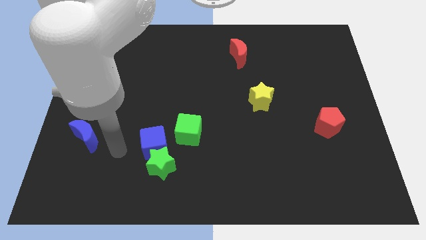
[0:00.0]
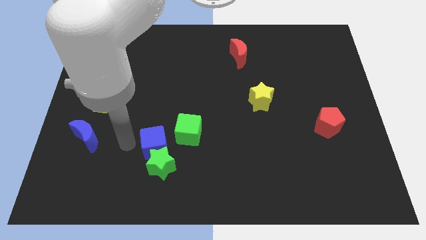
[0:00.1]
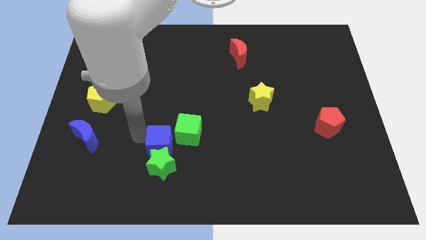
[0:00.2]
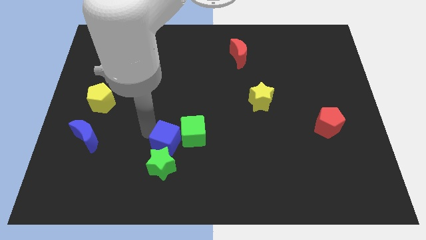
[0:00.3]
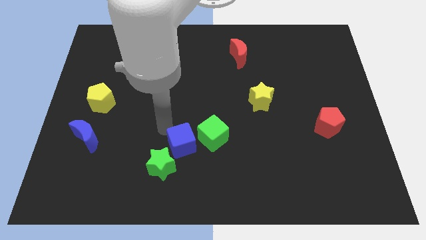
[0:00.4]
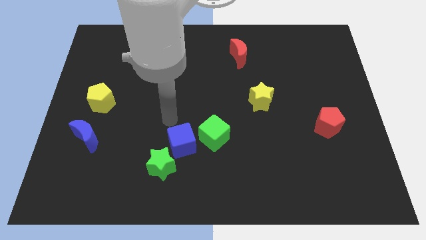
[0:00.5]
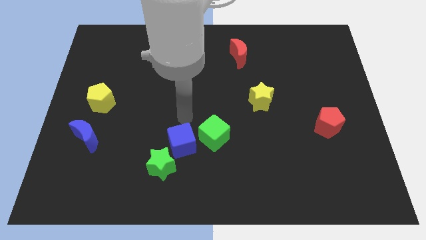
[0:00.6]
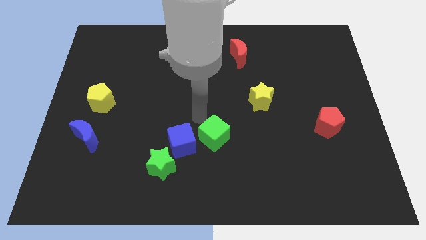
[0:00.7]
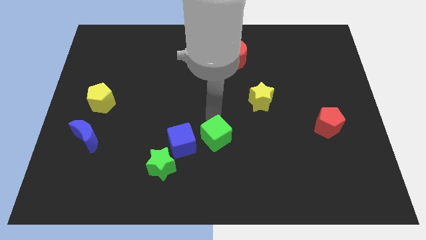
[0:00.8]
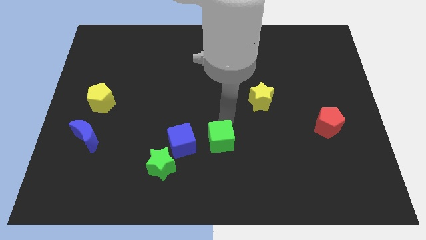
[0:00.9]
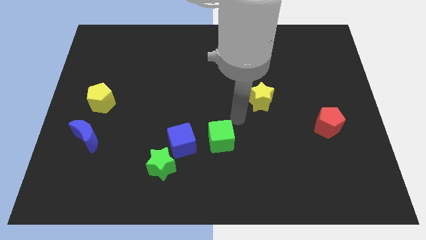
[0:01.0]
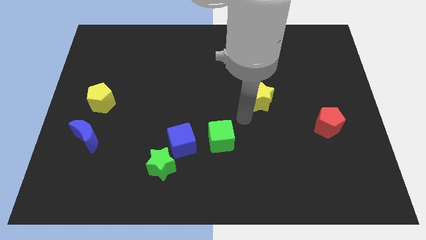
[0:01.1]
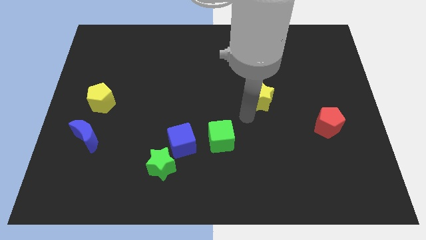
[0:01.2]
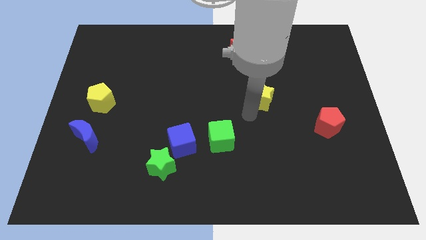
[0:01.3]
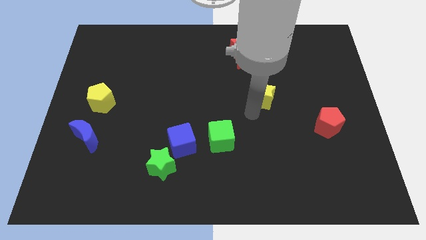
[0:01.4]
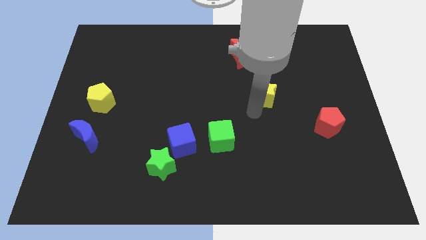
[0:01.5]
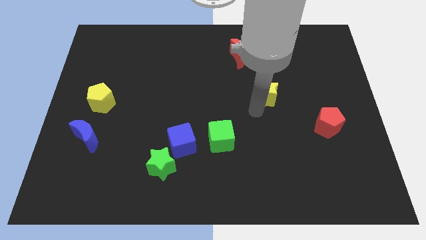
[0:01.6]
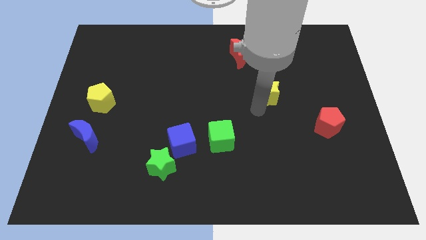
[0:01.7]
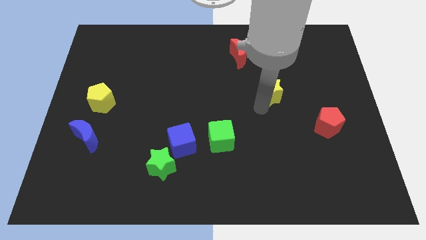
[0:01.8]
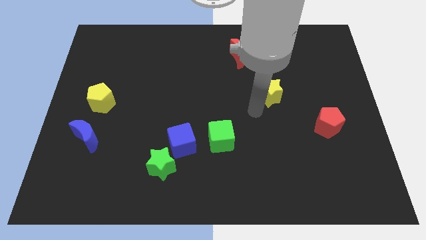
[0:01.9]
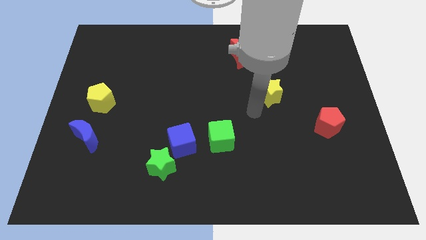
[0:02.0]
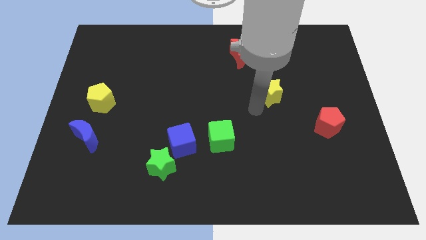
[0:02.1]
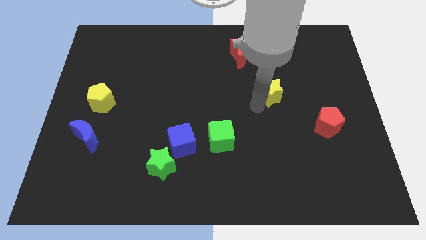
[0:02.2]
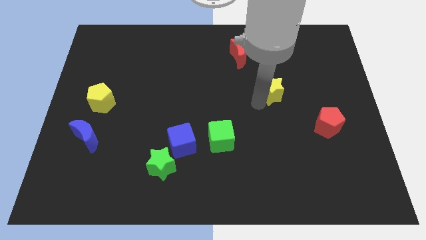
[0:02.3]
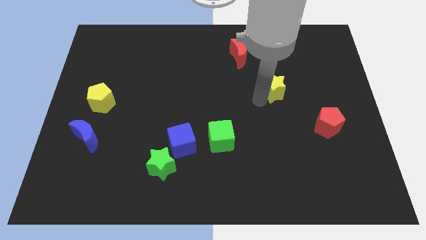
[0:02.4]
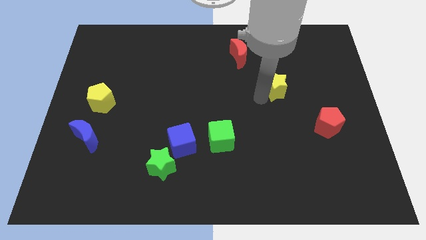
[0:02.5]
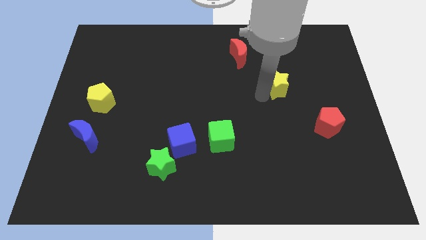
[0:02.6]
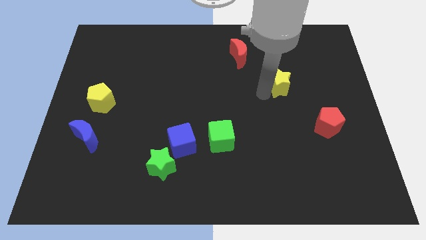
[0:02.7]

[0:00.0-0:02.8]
slide the yellow star diagonally up and right slightly

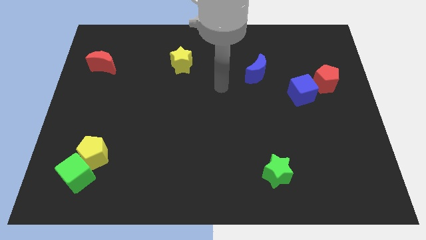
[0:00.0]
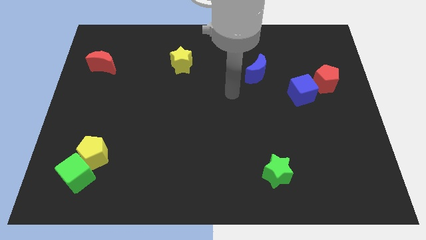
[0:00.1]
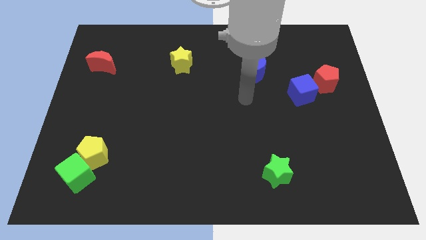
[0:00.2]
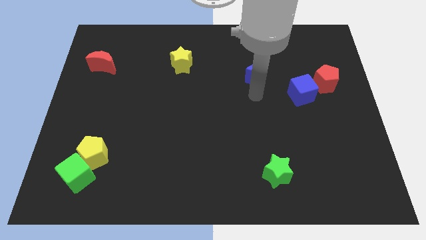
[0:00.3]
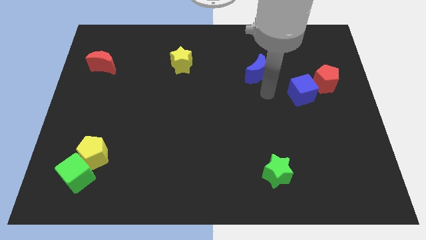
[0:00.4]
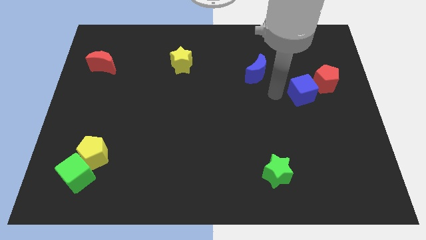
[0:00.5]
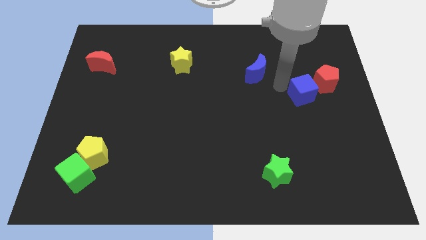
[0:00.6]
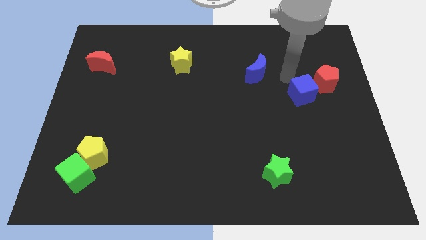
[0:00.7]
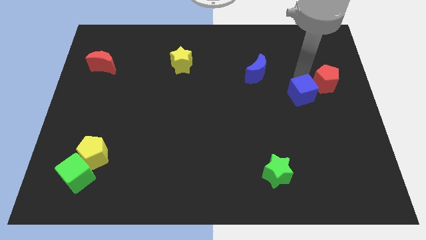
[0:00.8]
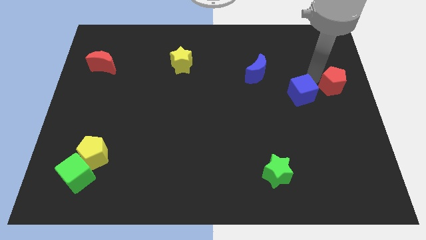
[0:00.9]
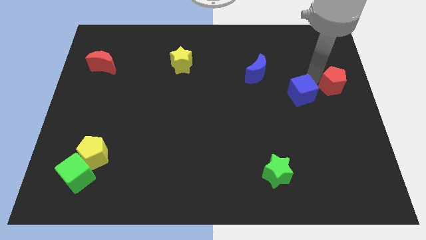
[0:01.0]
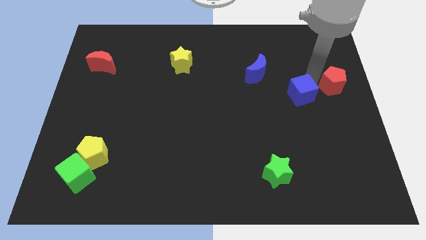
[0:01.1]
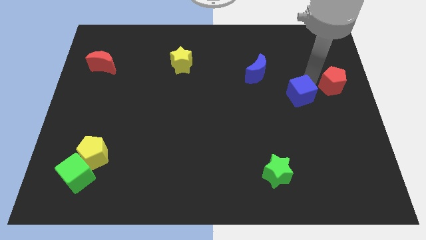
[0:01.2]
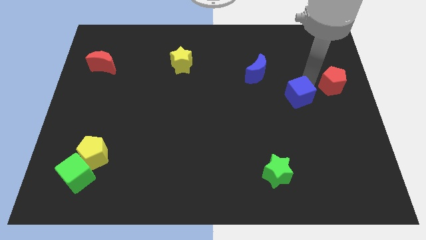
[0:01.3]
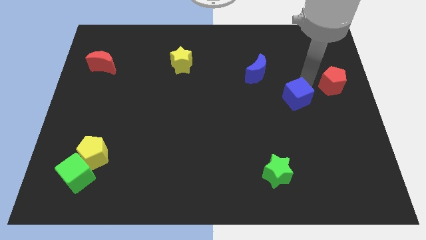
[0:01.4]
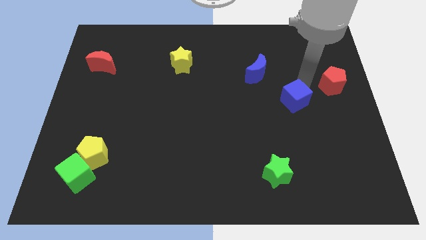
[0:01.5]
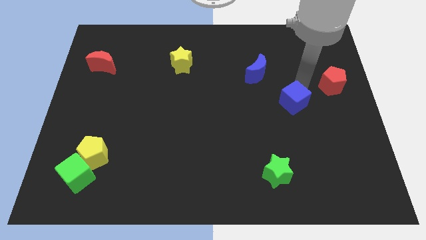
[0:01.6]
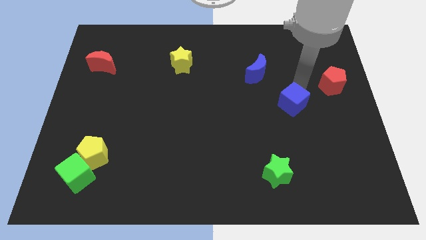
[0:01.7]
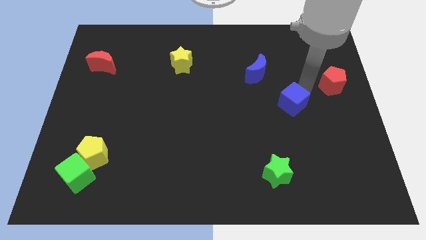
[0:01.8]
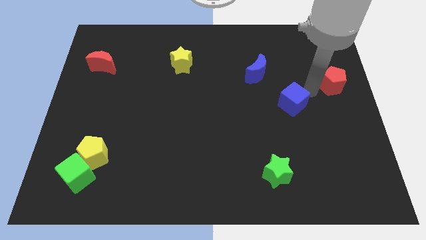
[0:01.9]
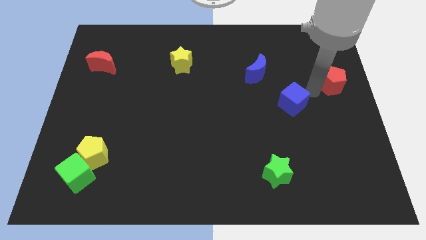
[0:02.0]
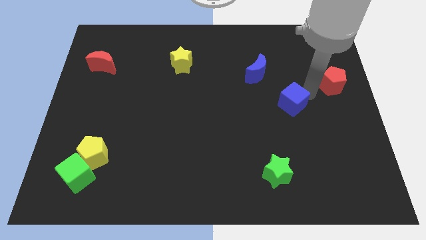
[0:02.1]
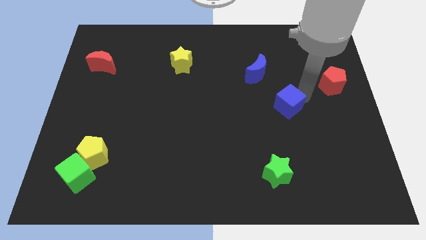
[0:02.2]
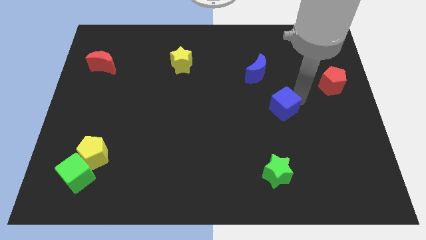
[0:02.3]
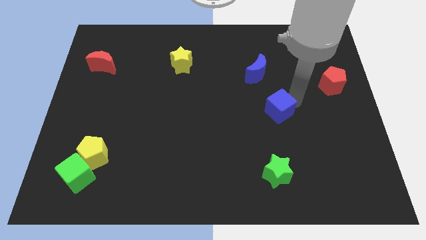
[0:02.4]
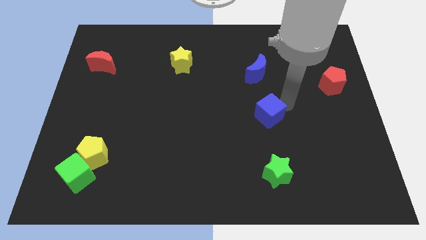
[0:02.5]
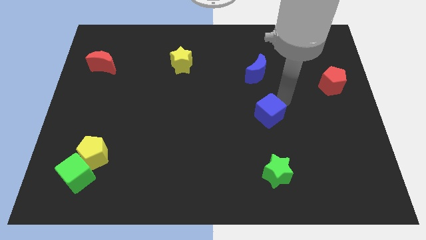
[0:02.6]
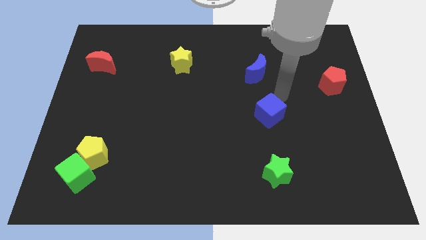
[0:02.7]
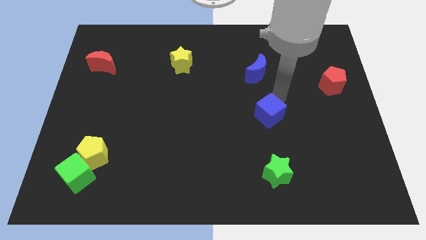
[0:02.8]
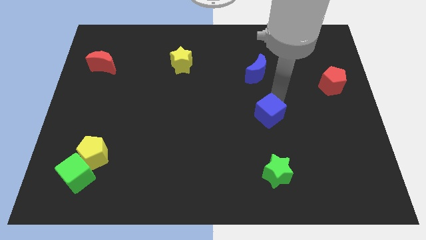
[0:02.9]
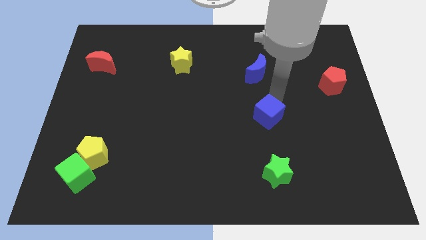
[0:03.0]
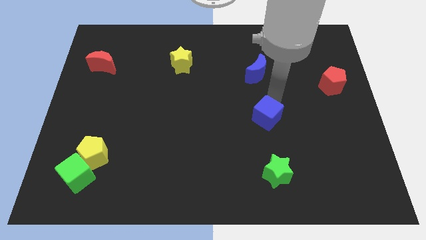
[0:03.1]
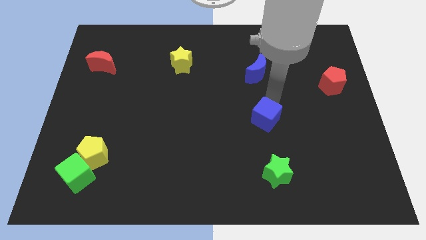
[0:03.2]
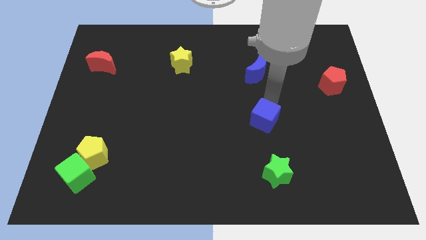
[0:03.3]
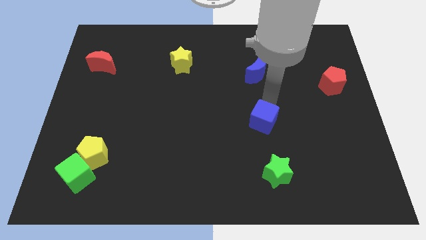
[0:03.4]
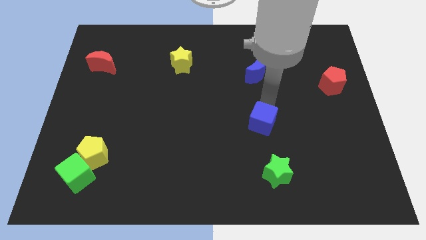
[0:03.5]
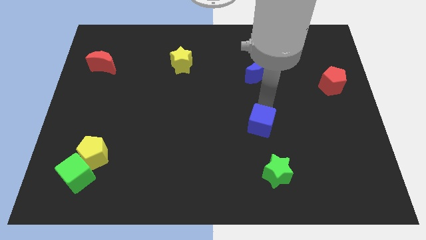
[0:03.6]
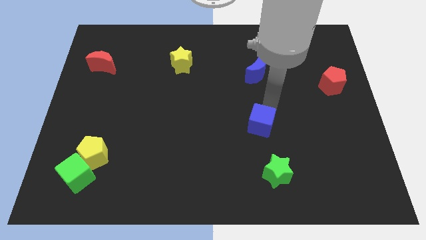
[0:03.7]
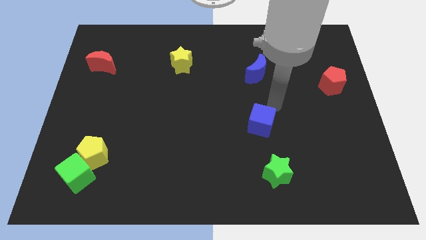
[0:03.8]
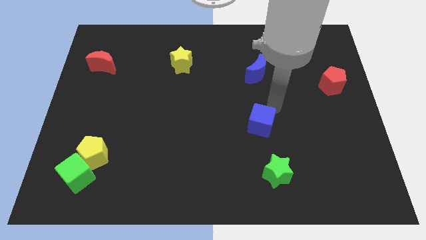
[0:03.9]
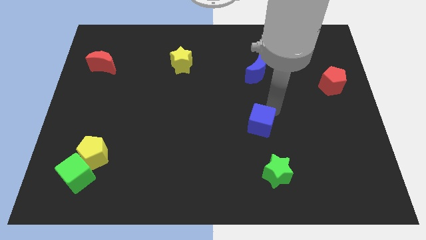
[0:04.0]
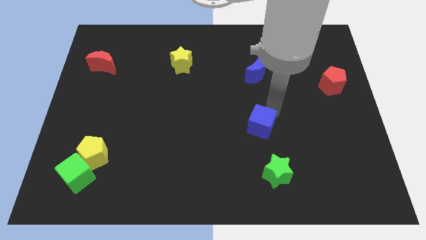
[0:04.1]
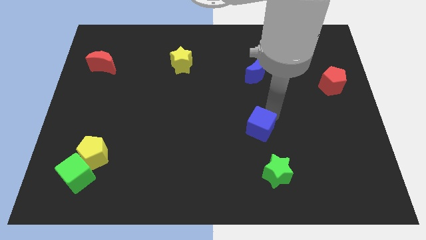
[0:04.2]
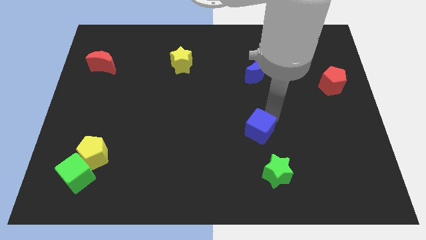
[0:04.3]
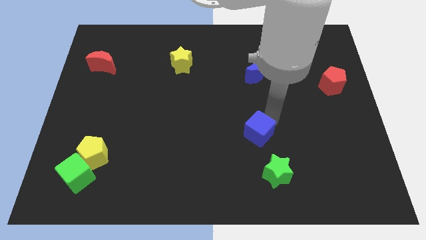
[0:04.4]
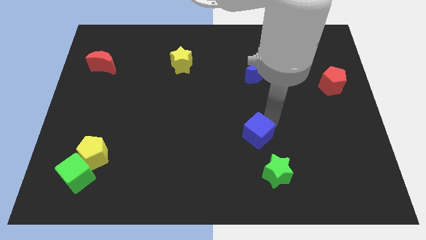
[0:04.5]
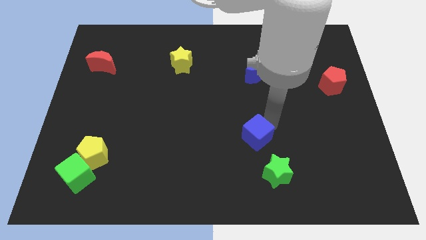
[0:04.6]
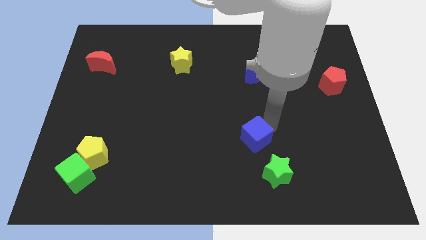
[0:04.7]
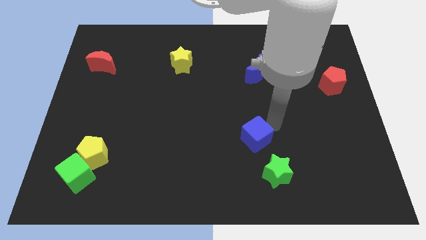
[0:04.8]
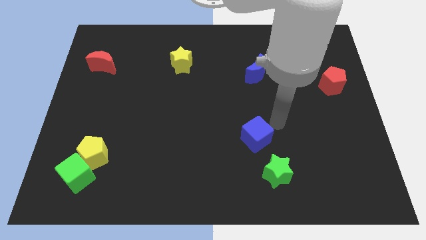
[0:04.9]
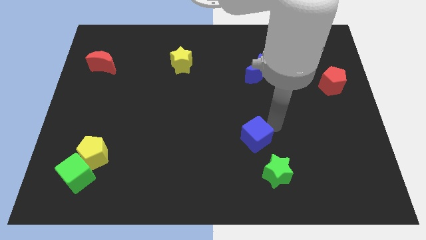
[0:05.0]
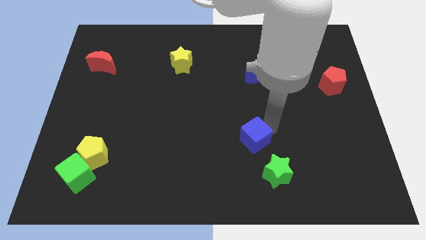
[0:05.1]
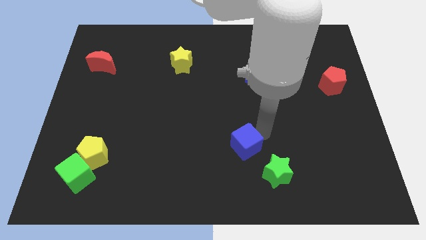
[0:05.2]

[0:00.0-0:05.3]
push the blue cube downwards and to the left diagonally

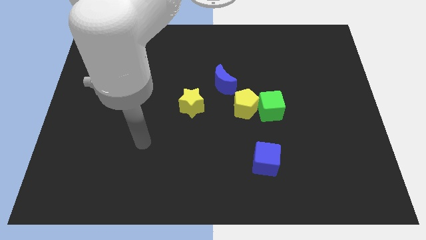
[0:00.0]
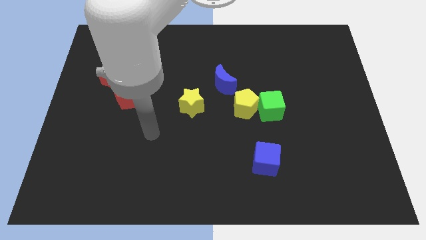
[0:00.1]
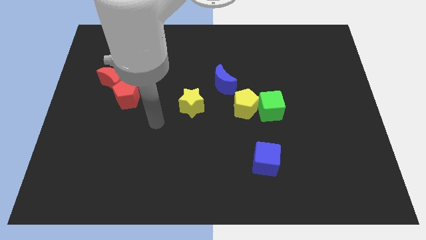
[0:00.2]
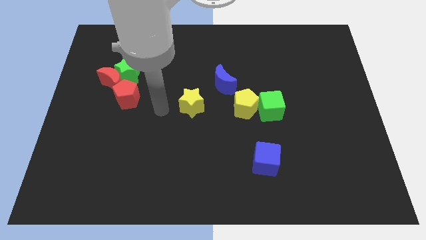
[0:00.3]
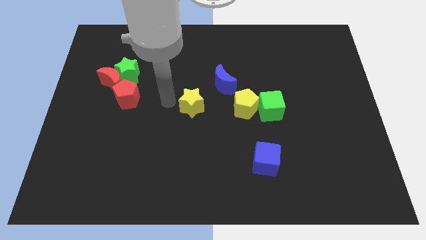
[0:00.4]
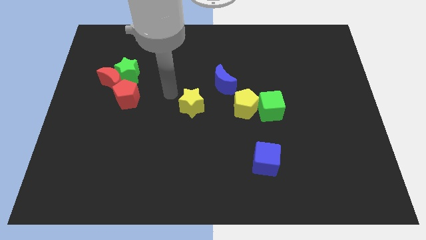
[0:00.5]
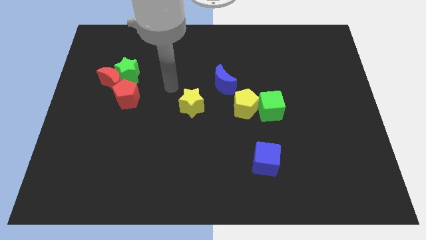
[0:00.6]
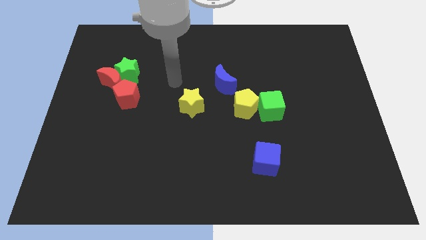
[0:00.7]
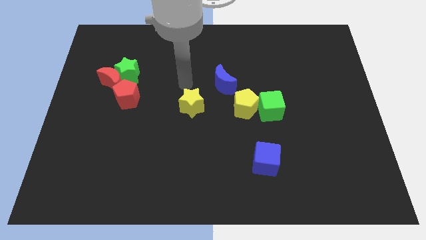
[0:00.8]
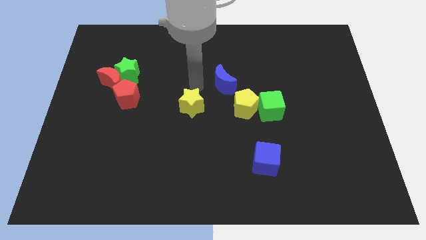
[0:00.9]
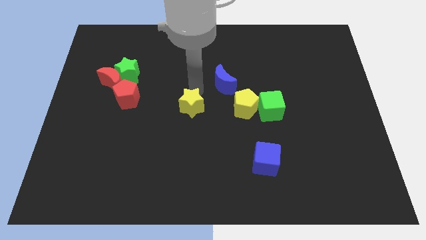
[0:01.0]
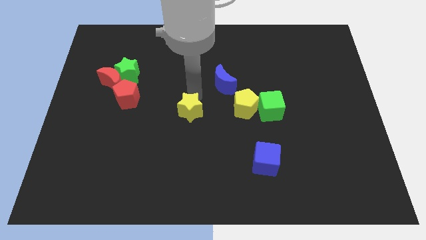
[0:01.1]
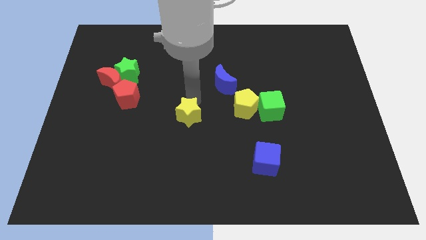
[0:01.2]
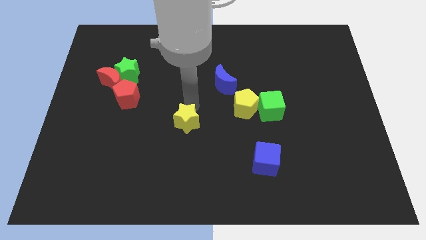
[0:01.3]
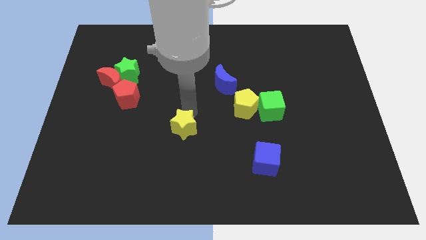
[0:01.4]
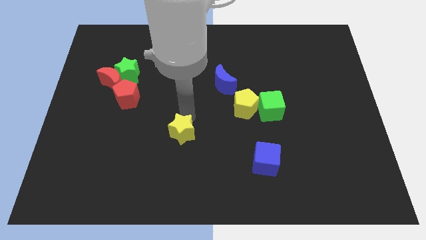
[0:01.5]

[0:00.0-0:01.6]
push the yellow star a little down
